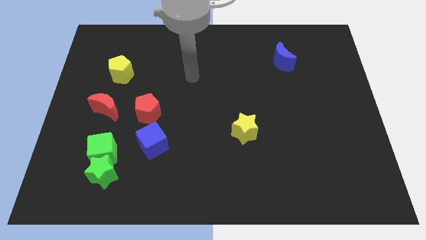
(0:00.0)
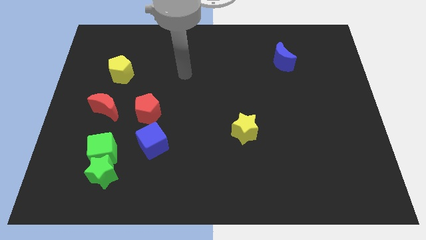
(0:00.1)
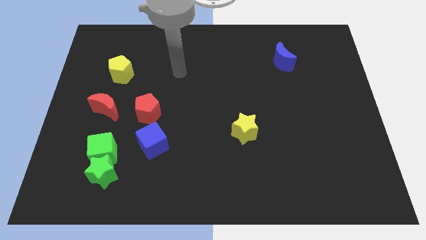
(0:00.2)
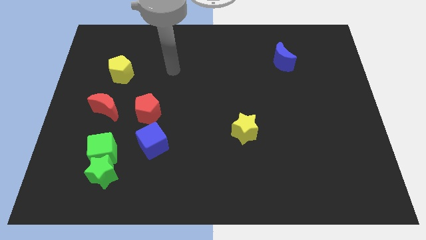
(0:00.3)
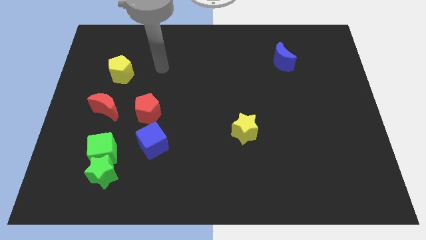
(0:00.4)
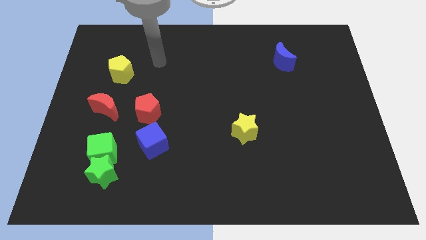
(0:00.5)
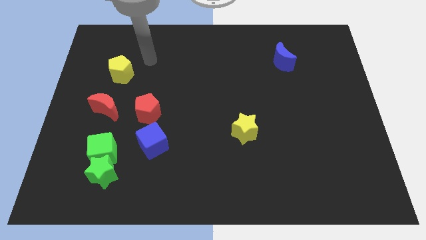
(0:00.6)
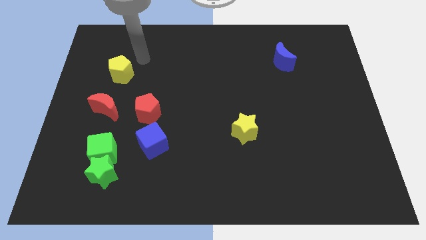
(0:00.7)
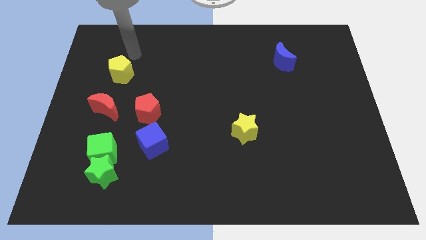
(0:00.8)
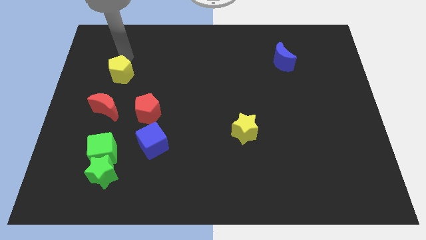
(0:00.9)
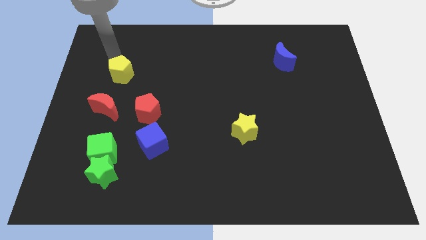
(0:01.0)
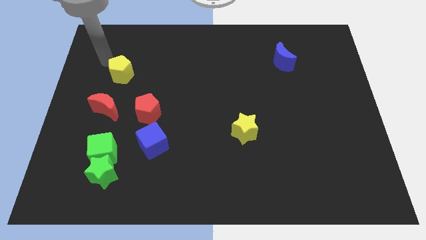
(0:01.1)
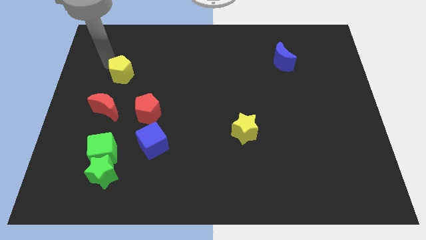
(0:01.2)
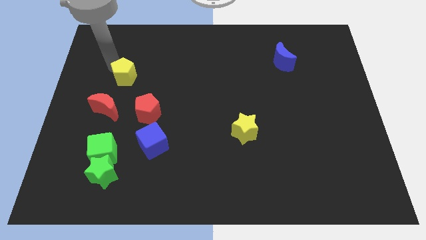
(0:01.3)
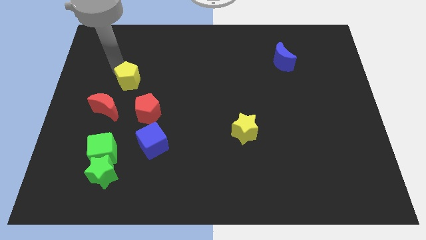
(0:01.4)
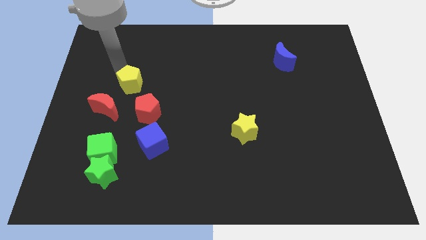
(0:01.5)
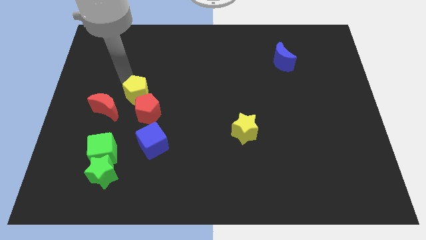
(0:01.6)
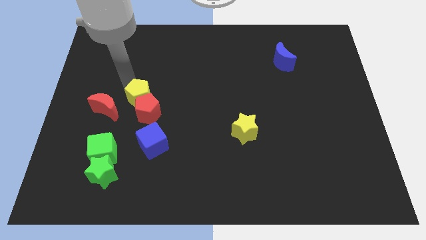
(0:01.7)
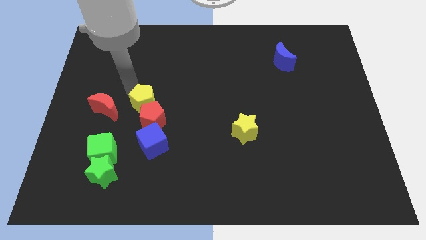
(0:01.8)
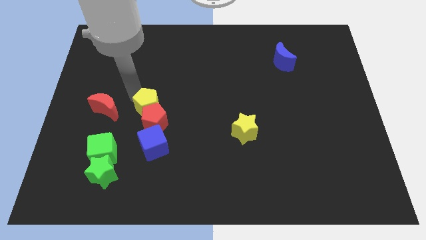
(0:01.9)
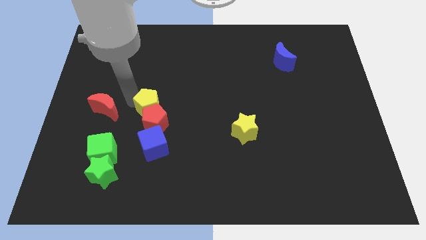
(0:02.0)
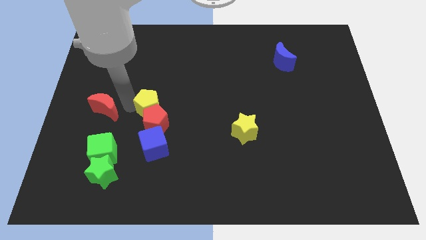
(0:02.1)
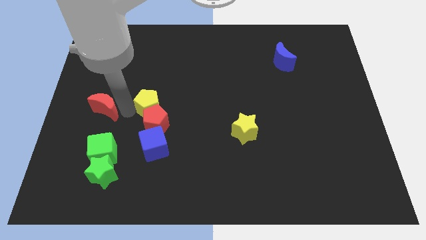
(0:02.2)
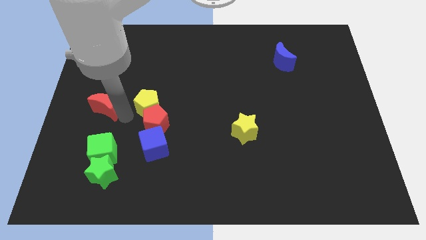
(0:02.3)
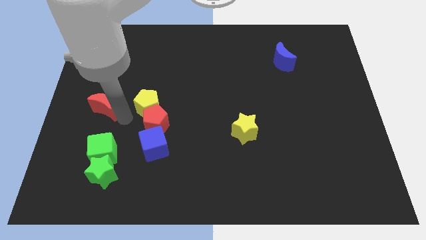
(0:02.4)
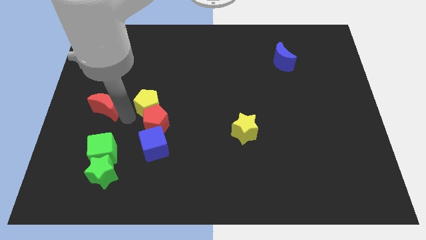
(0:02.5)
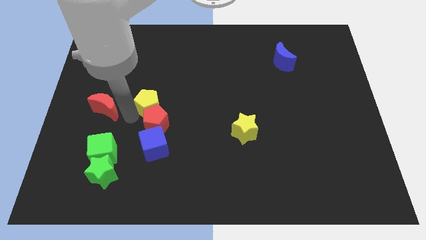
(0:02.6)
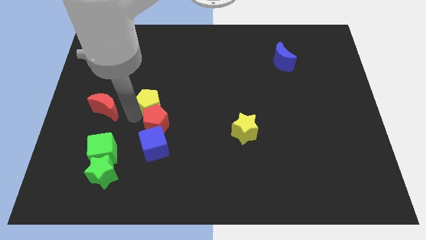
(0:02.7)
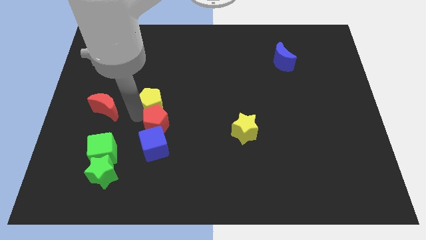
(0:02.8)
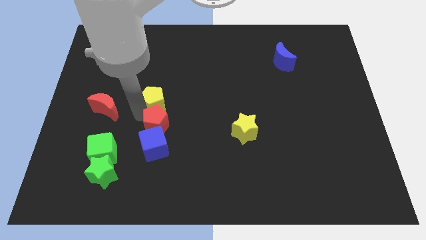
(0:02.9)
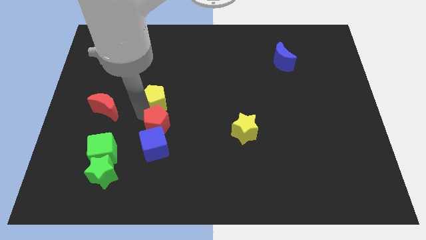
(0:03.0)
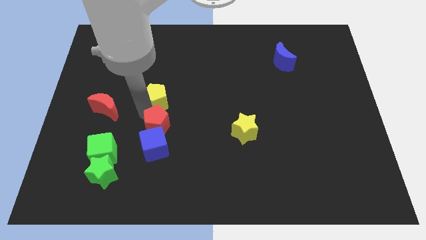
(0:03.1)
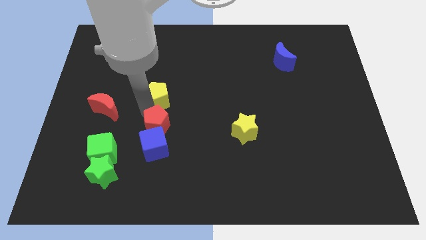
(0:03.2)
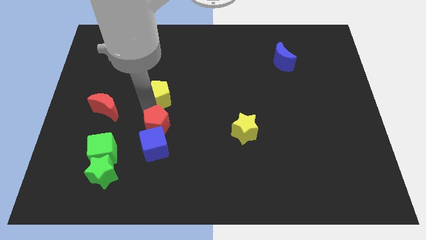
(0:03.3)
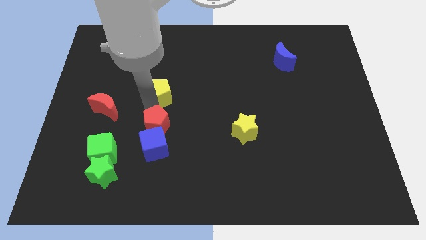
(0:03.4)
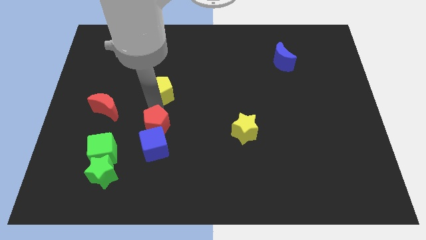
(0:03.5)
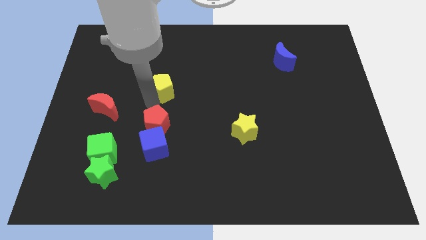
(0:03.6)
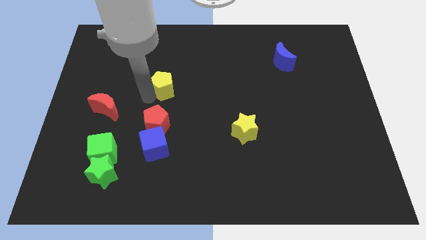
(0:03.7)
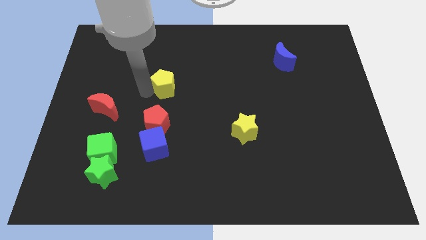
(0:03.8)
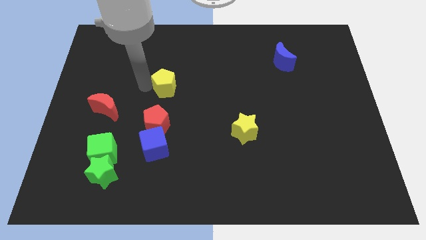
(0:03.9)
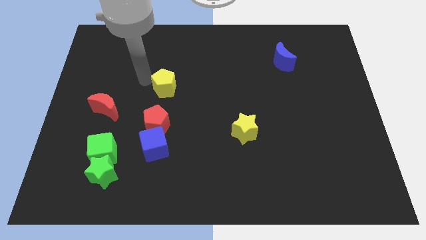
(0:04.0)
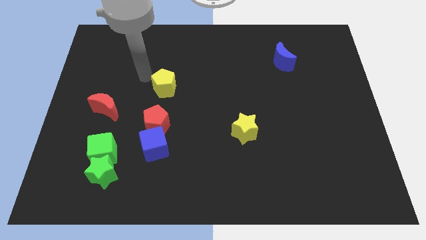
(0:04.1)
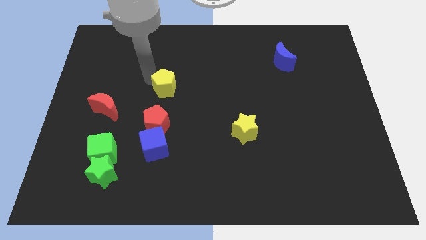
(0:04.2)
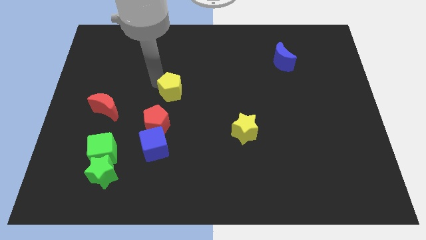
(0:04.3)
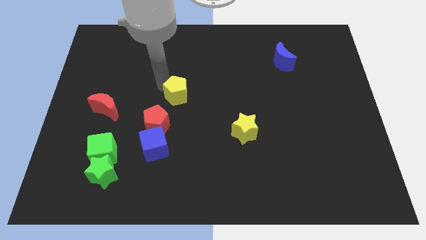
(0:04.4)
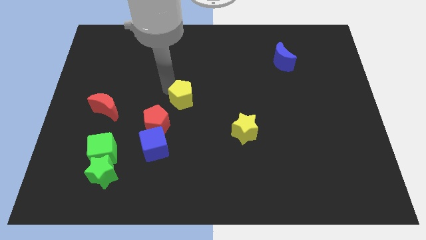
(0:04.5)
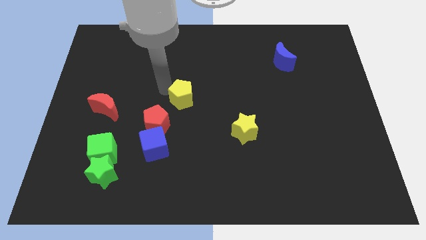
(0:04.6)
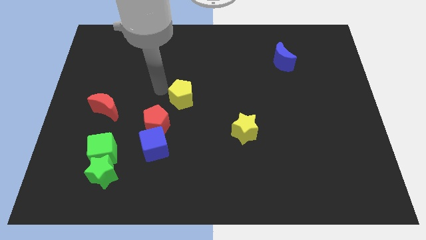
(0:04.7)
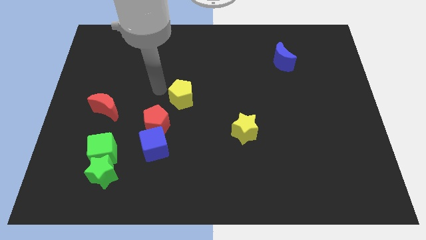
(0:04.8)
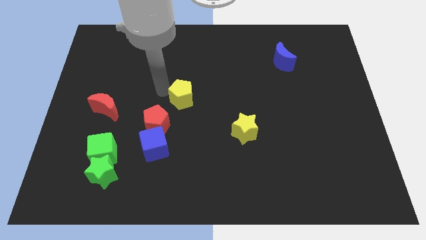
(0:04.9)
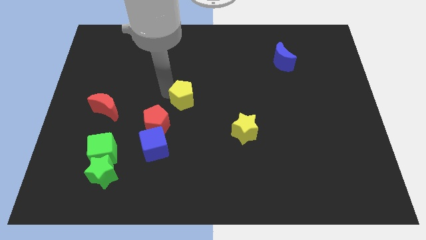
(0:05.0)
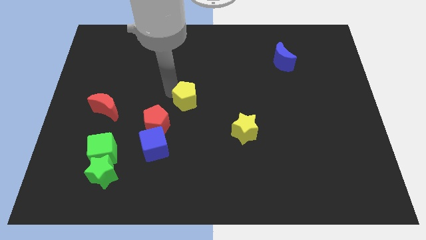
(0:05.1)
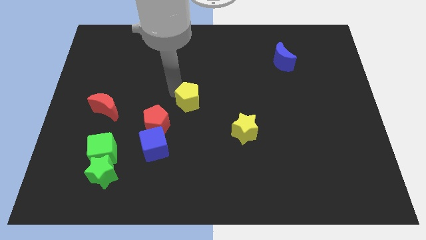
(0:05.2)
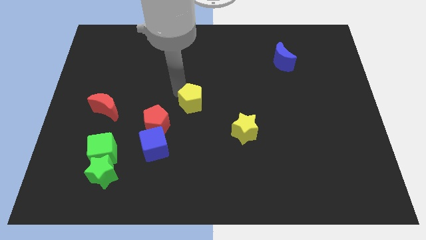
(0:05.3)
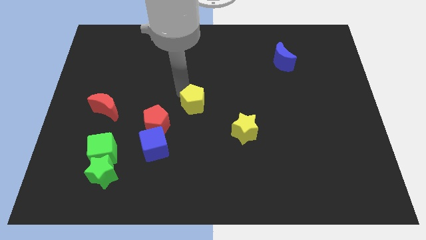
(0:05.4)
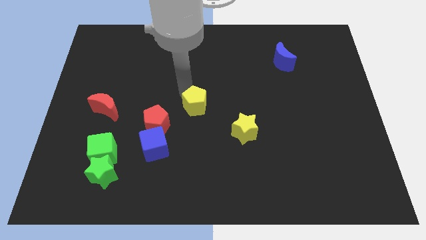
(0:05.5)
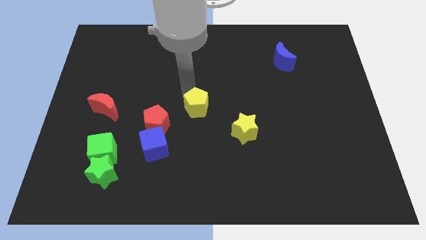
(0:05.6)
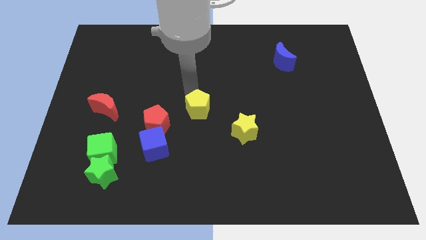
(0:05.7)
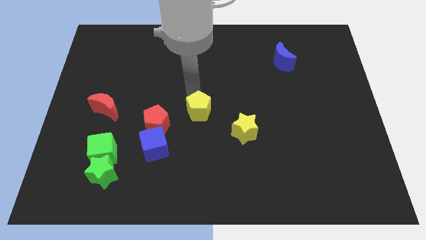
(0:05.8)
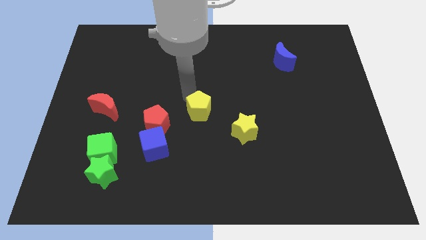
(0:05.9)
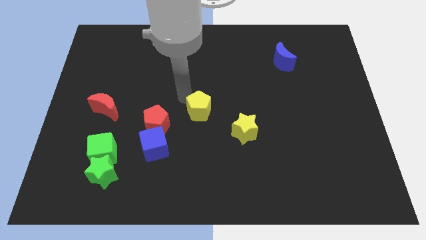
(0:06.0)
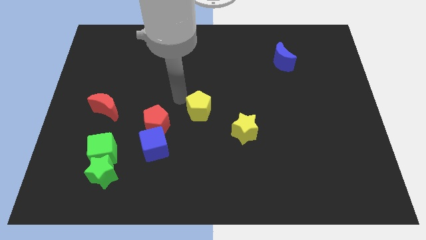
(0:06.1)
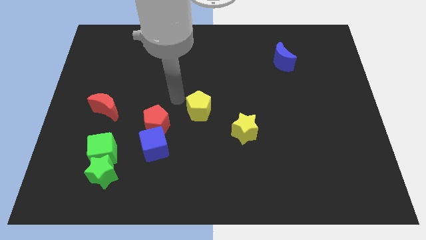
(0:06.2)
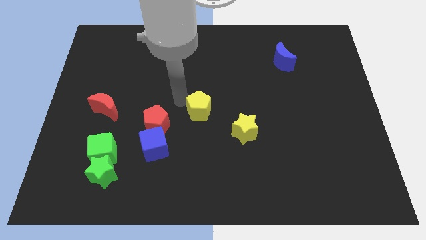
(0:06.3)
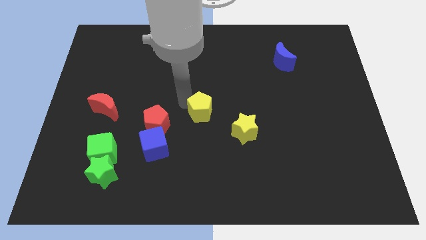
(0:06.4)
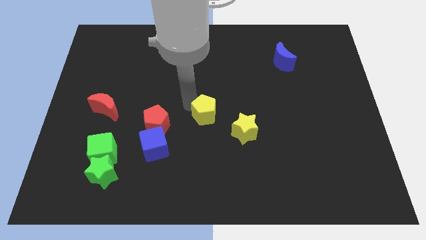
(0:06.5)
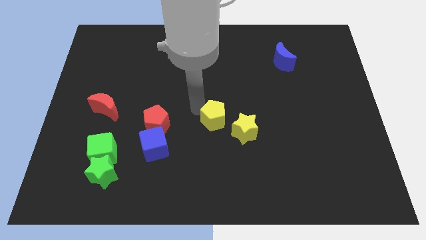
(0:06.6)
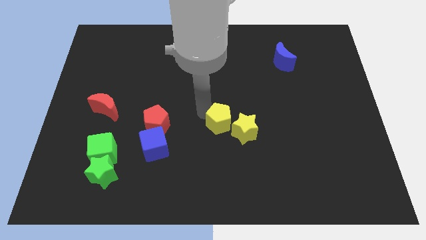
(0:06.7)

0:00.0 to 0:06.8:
push the yellow pentagon close to the yellow star
